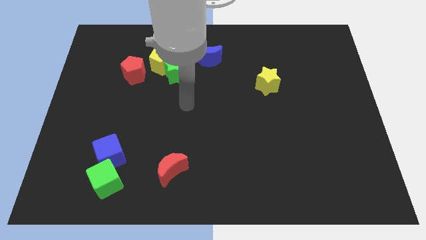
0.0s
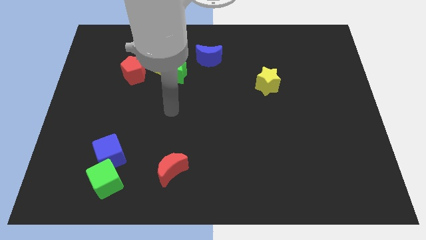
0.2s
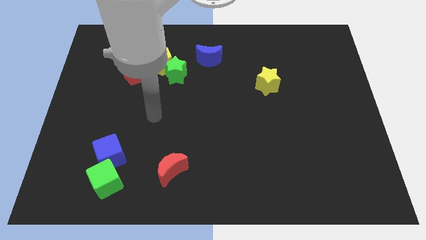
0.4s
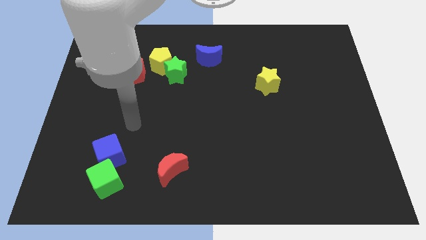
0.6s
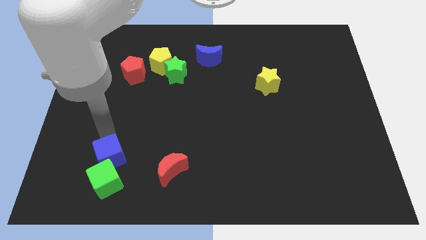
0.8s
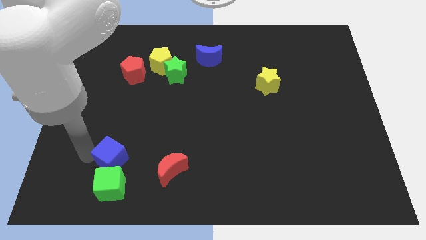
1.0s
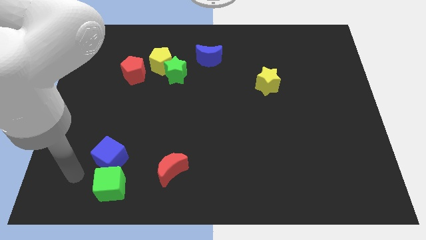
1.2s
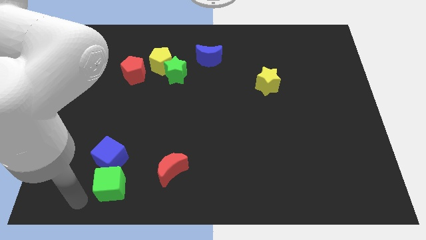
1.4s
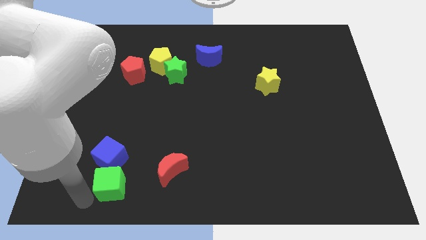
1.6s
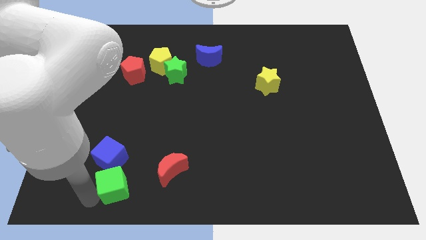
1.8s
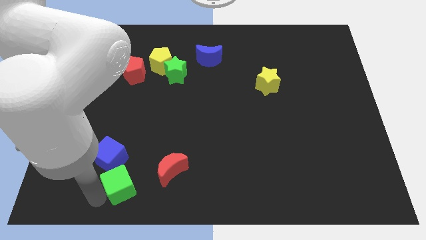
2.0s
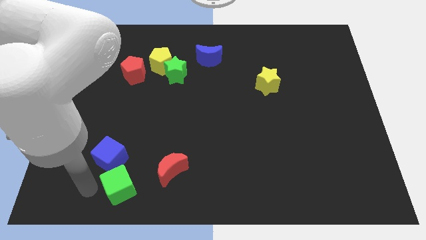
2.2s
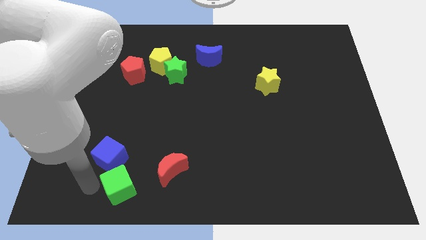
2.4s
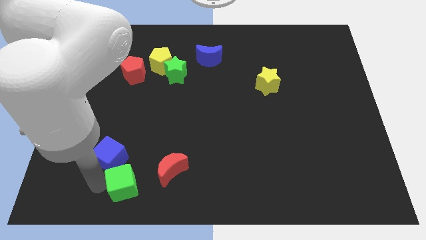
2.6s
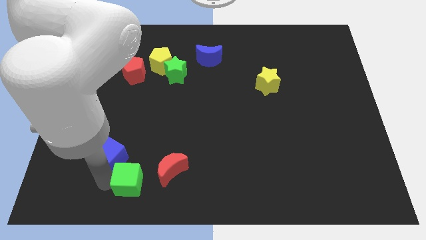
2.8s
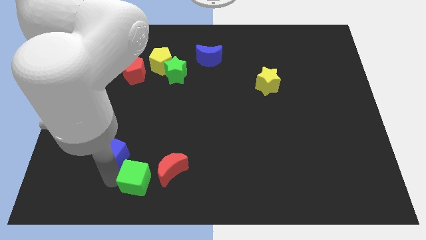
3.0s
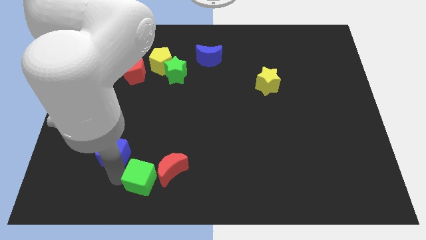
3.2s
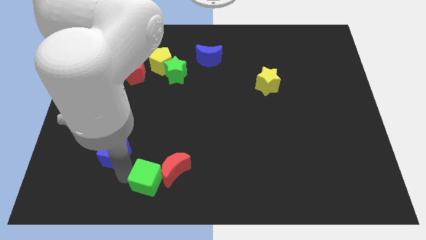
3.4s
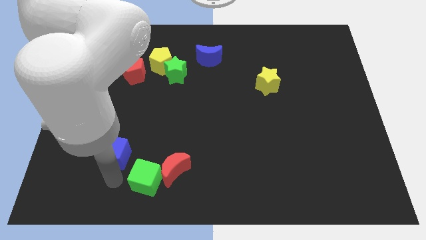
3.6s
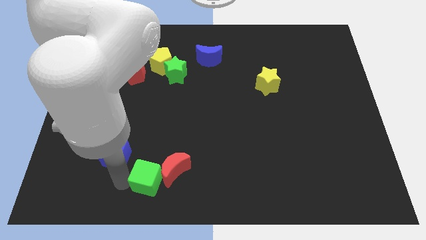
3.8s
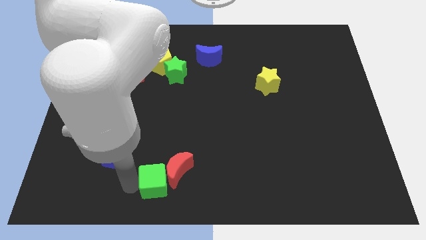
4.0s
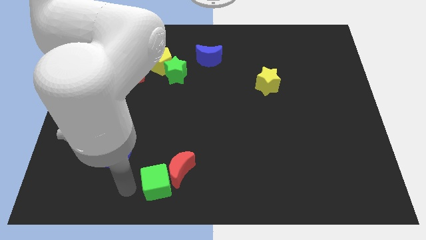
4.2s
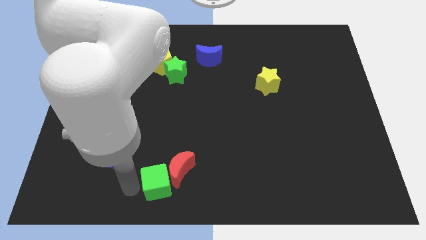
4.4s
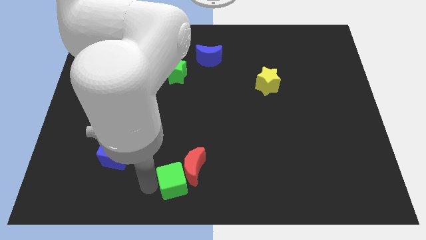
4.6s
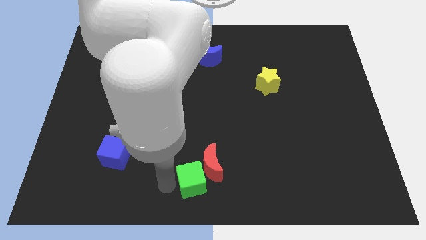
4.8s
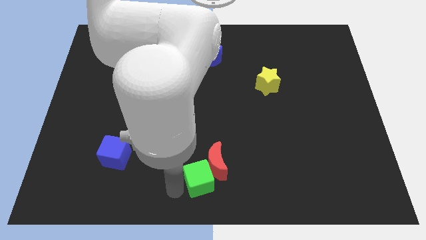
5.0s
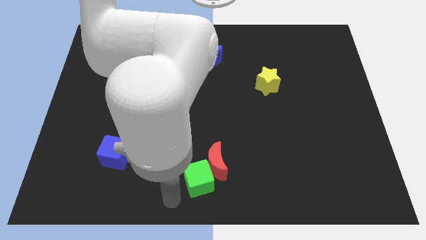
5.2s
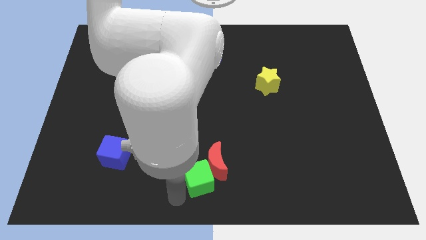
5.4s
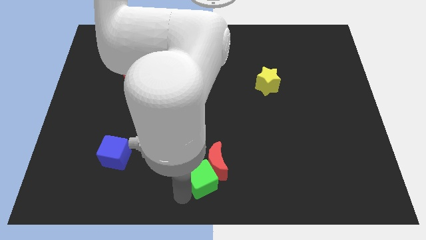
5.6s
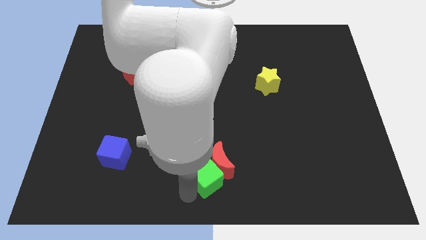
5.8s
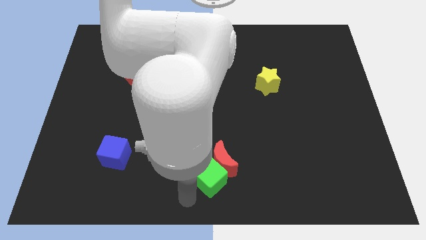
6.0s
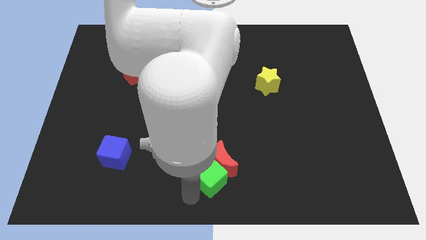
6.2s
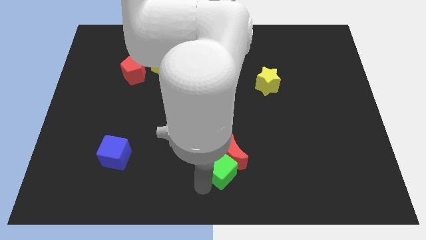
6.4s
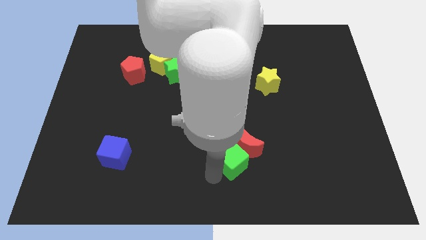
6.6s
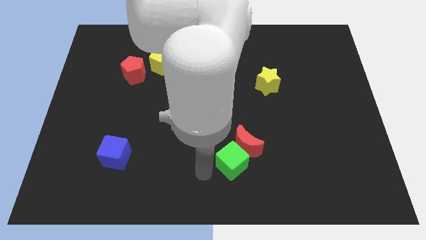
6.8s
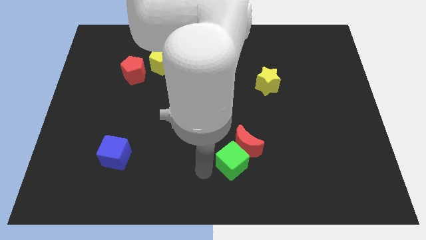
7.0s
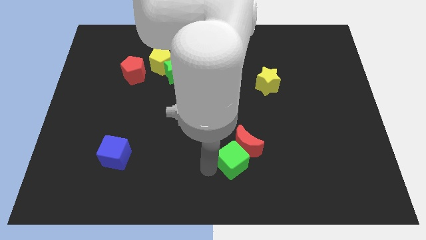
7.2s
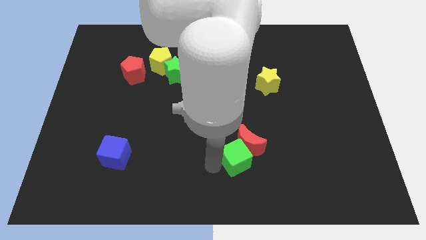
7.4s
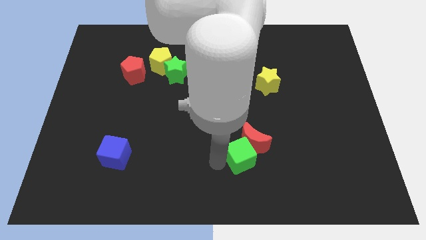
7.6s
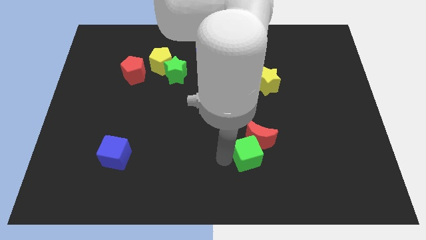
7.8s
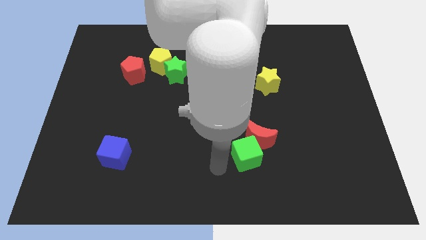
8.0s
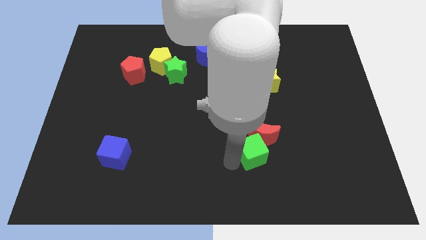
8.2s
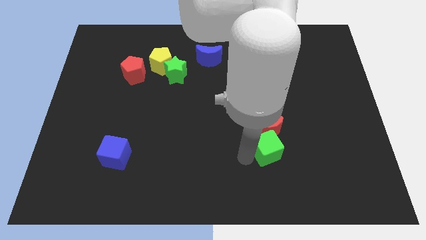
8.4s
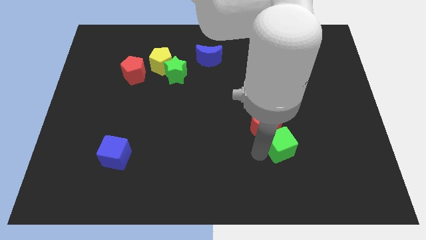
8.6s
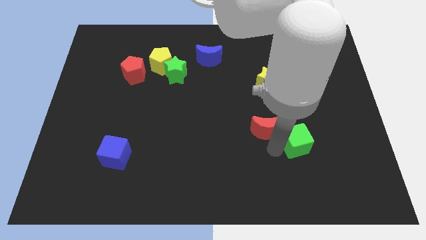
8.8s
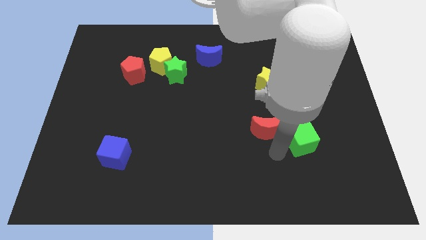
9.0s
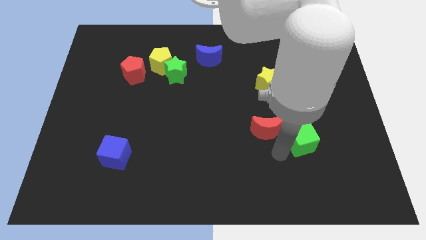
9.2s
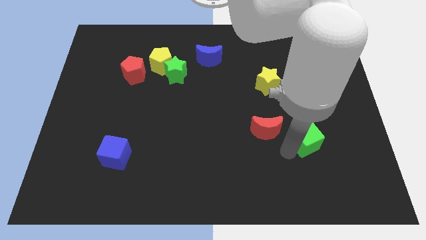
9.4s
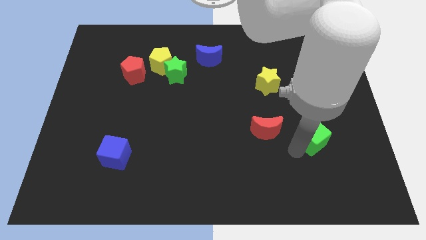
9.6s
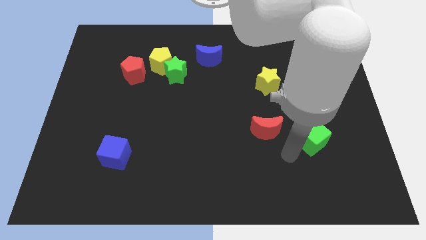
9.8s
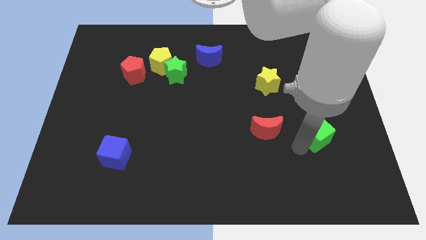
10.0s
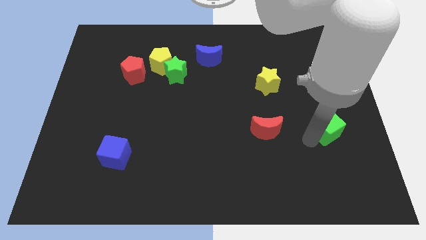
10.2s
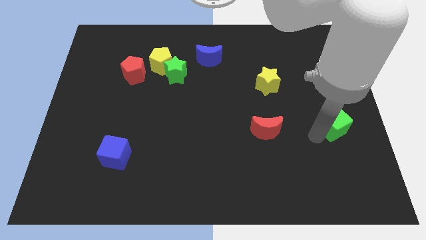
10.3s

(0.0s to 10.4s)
push the green cube to the right side

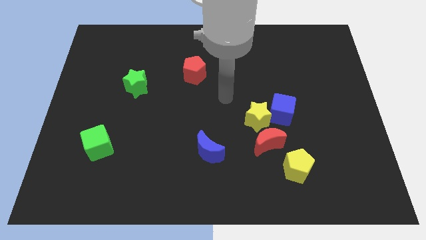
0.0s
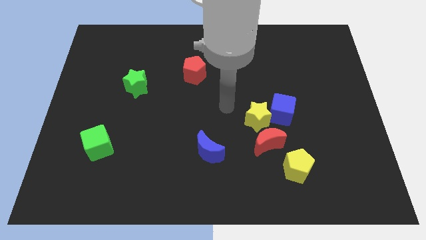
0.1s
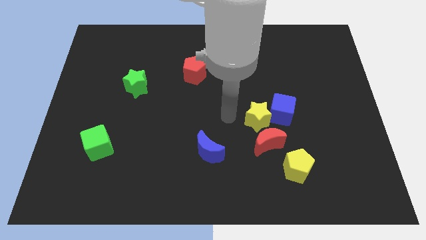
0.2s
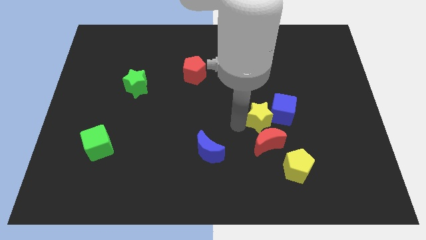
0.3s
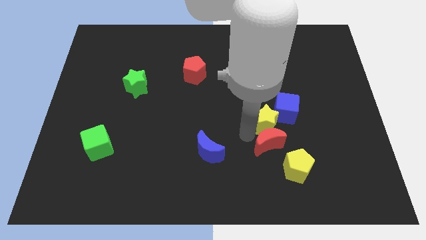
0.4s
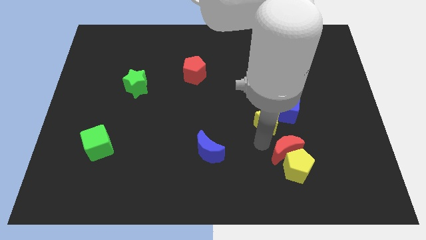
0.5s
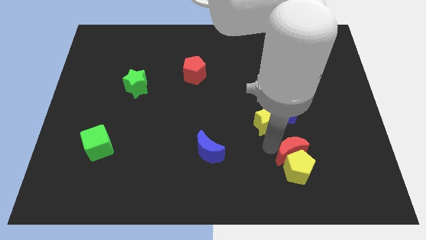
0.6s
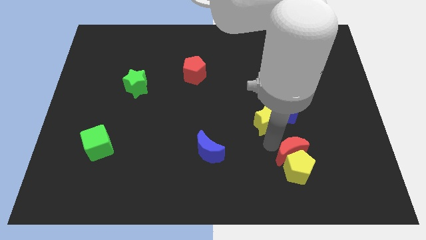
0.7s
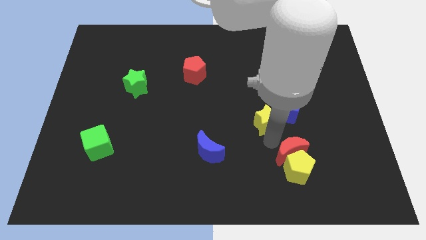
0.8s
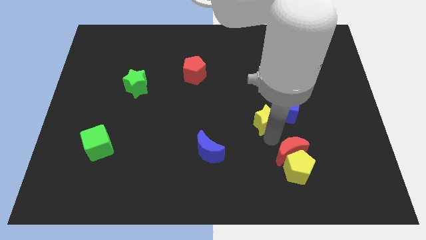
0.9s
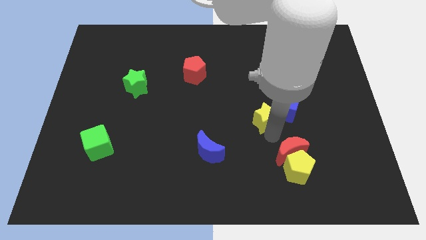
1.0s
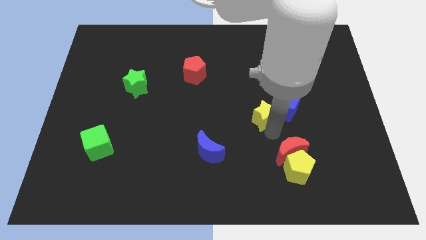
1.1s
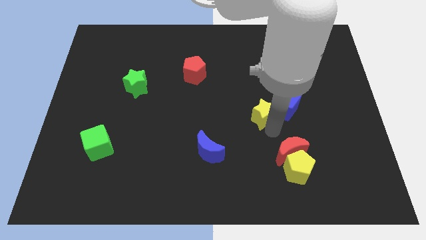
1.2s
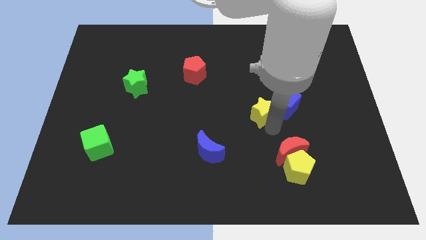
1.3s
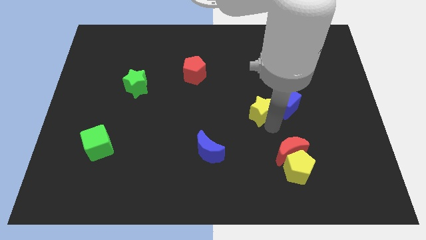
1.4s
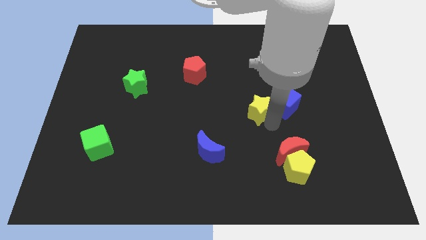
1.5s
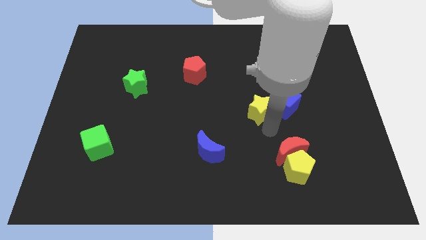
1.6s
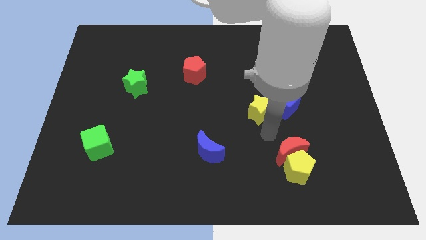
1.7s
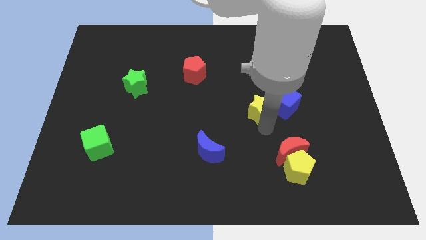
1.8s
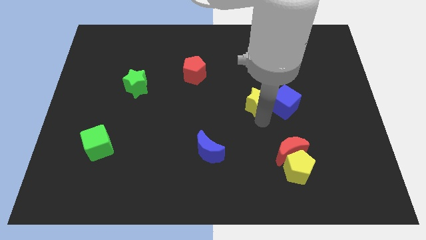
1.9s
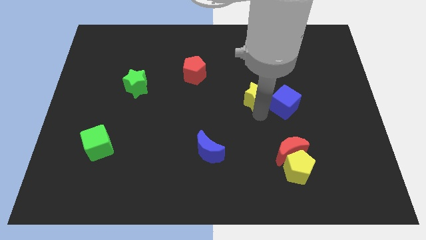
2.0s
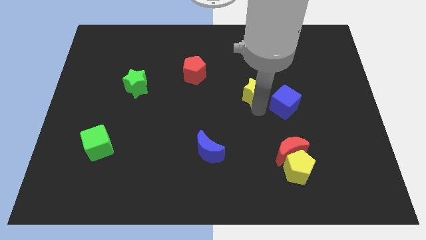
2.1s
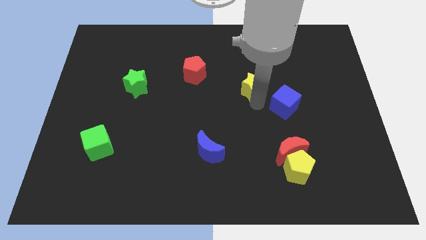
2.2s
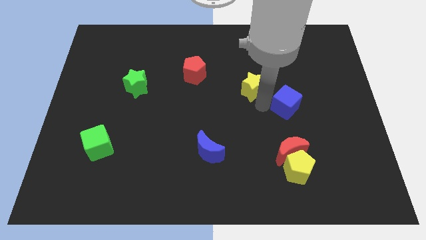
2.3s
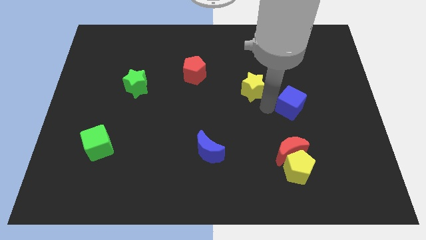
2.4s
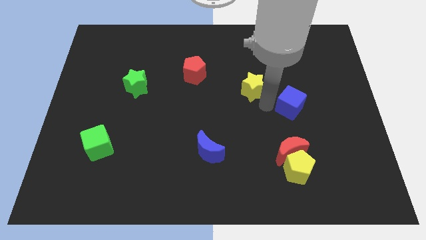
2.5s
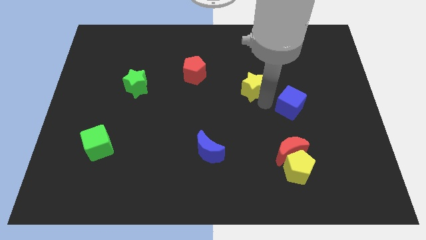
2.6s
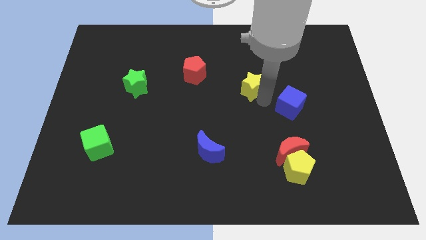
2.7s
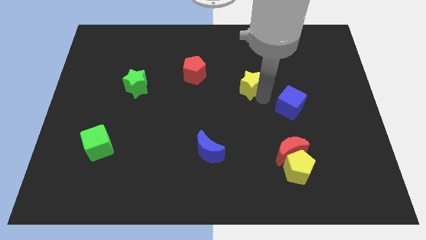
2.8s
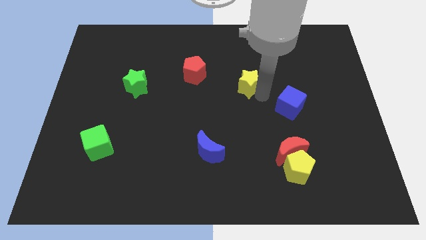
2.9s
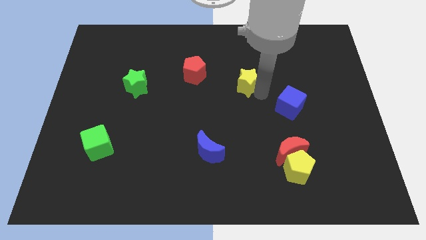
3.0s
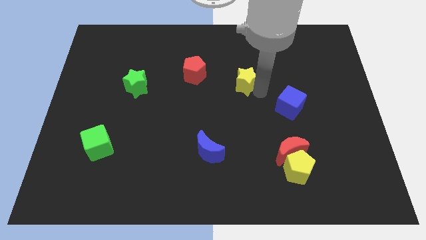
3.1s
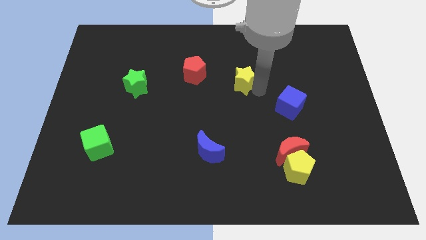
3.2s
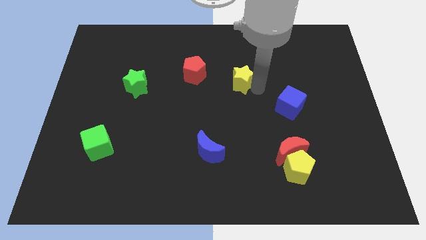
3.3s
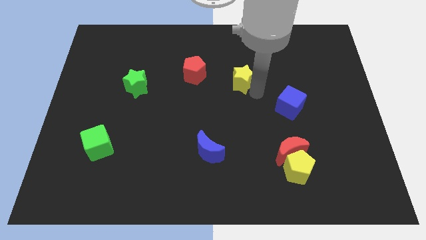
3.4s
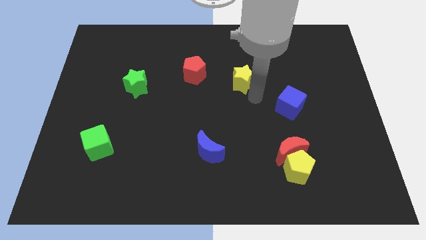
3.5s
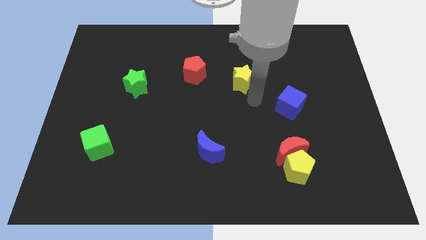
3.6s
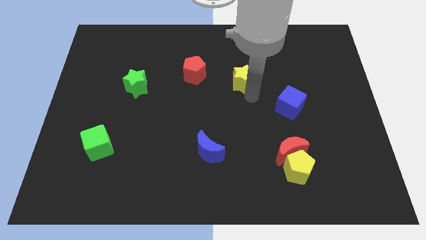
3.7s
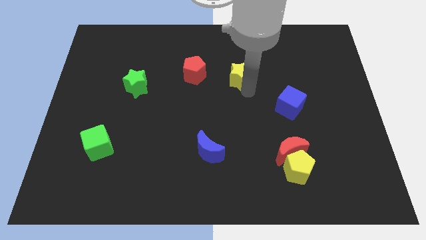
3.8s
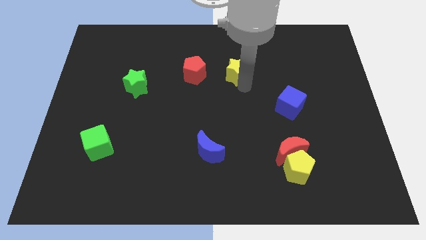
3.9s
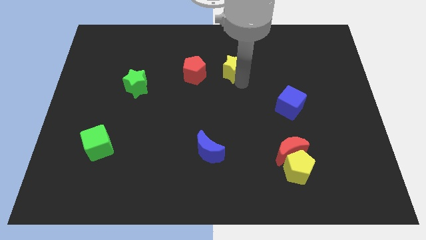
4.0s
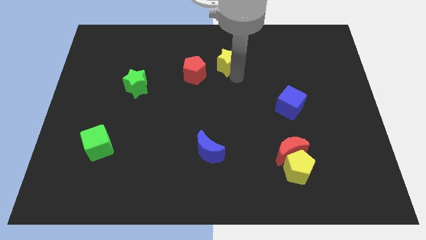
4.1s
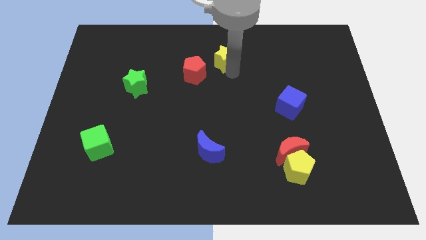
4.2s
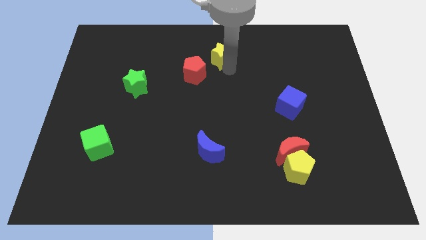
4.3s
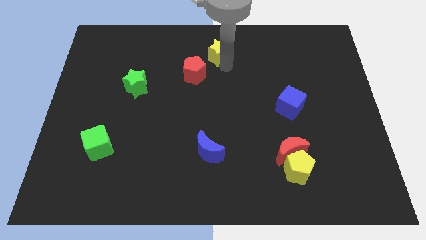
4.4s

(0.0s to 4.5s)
move the yellow star to the towards your base
